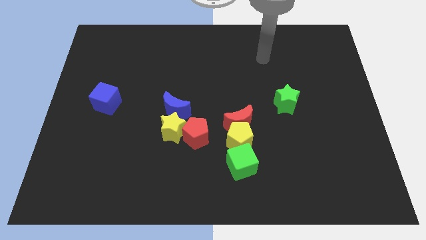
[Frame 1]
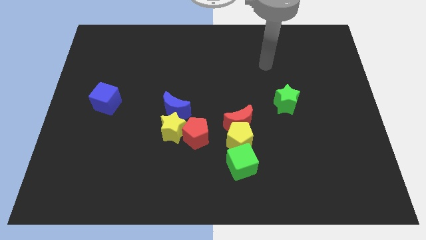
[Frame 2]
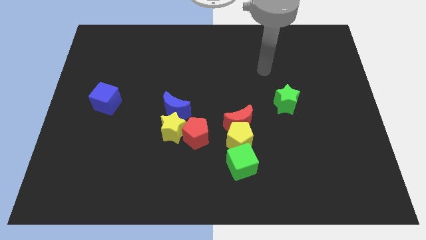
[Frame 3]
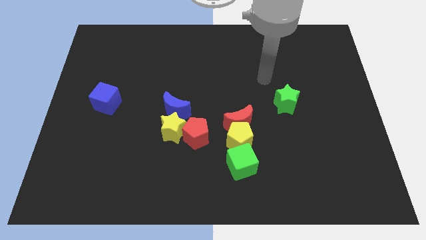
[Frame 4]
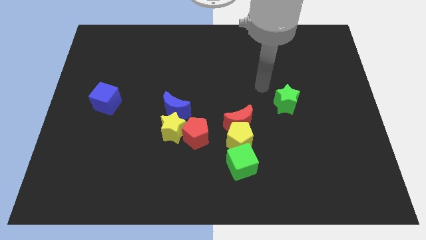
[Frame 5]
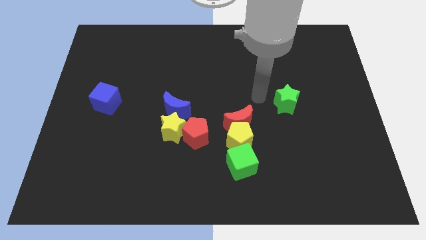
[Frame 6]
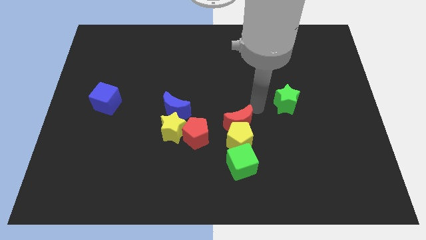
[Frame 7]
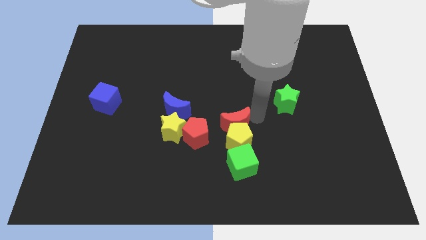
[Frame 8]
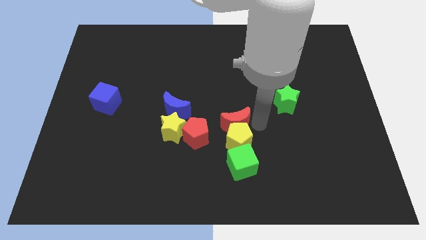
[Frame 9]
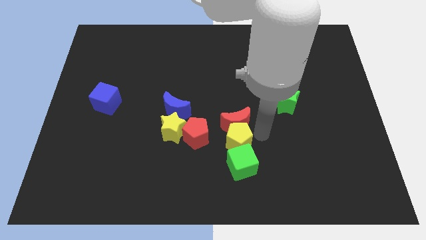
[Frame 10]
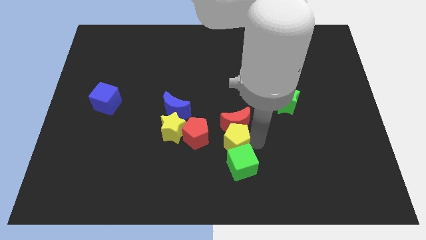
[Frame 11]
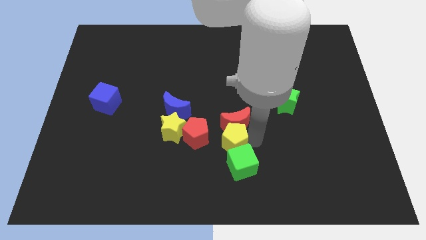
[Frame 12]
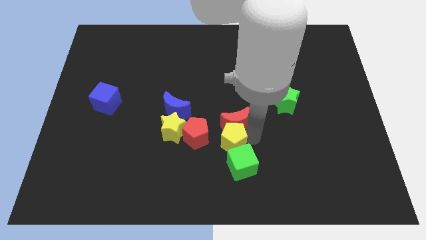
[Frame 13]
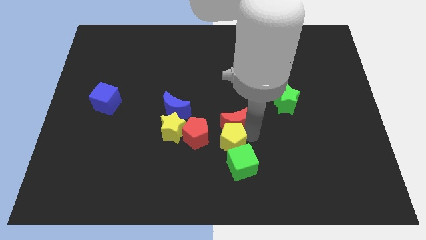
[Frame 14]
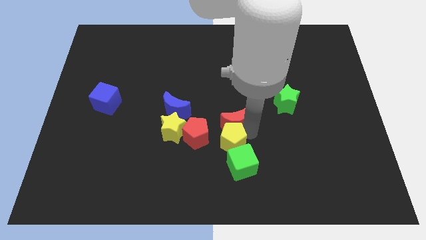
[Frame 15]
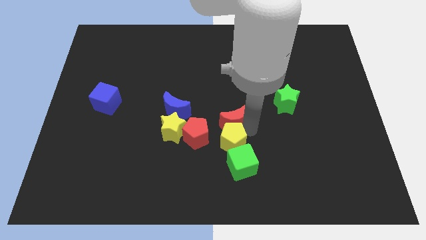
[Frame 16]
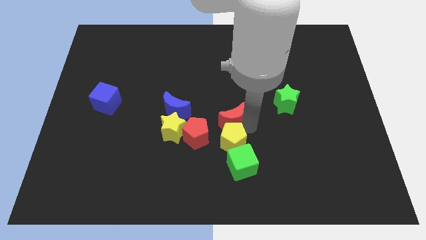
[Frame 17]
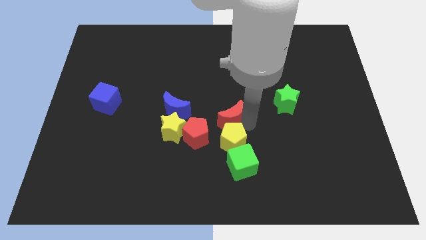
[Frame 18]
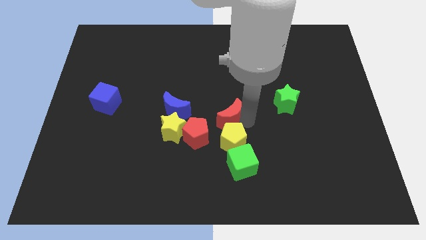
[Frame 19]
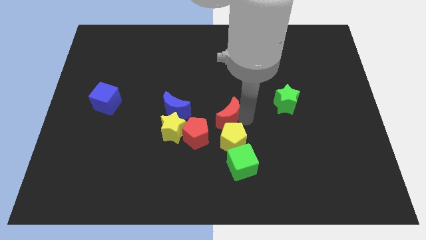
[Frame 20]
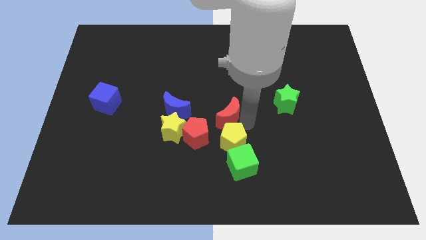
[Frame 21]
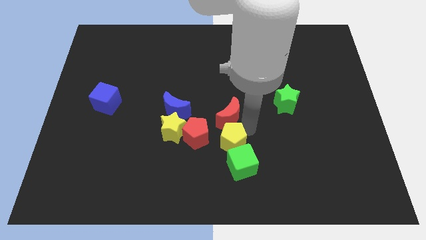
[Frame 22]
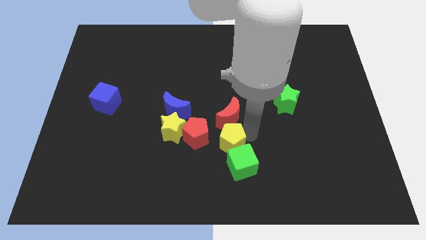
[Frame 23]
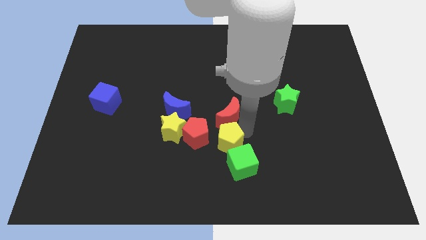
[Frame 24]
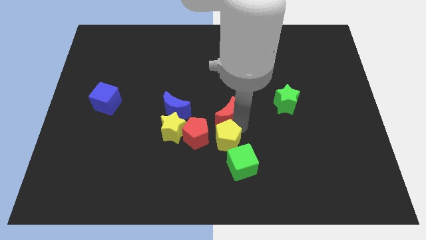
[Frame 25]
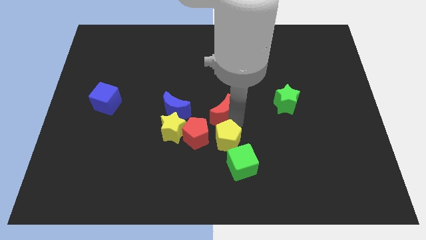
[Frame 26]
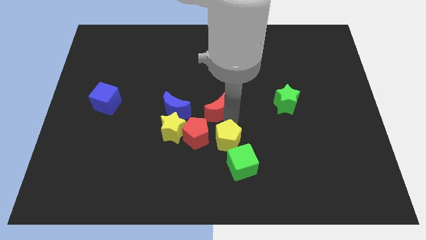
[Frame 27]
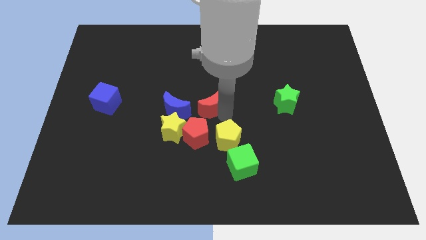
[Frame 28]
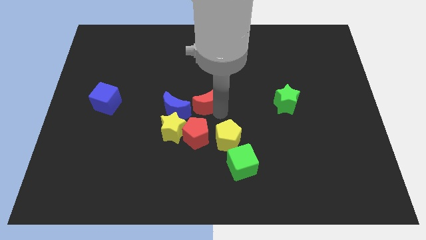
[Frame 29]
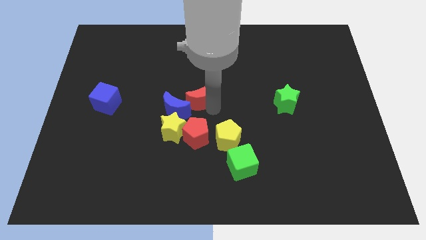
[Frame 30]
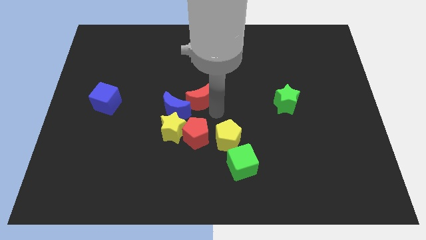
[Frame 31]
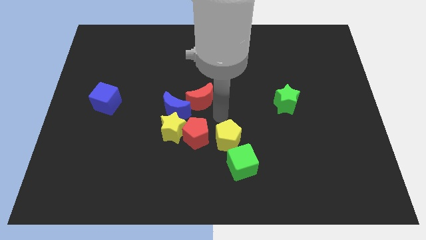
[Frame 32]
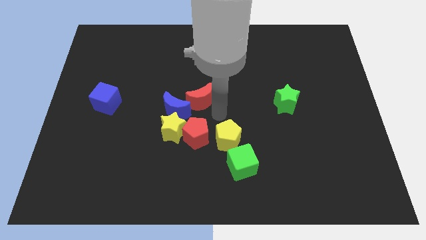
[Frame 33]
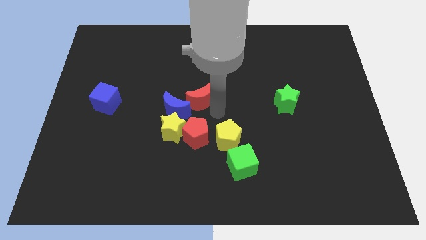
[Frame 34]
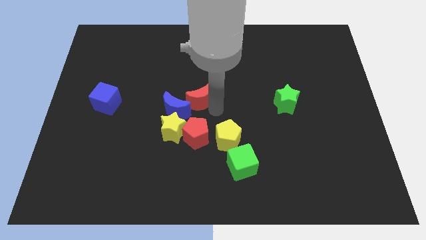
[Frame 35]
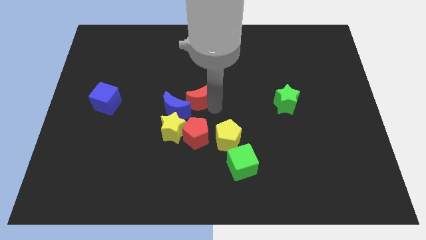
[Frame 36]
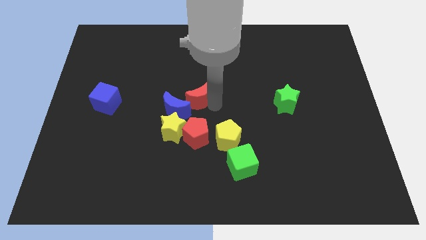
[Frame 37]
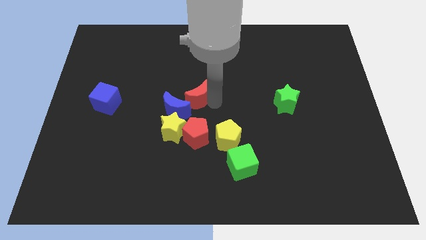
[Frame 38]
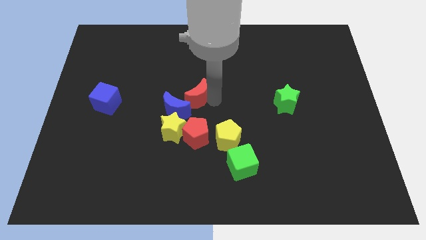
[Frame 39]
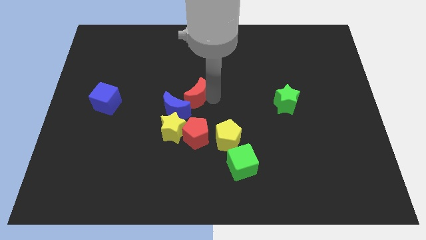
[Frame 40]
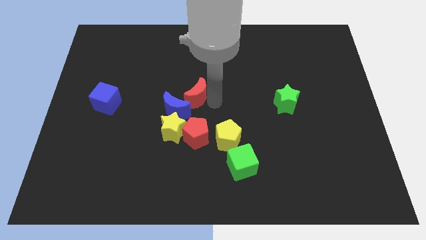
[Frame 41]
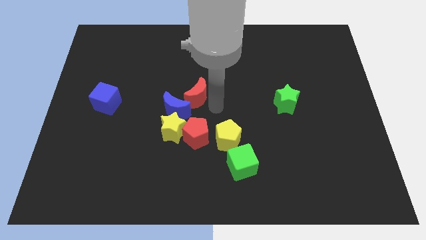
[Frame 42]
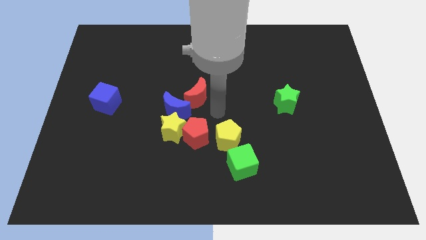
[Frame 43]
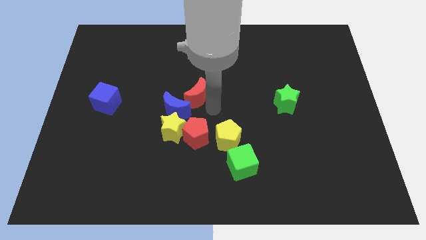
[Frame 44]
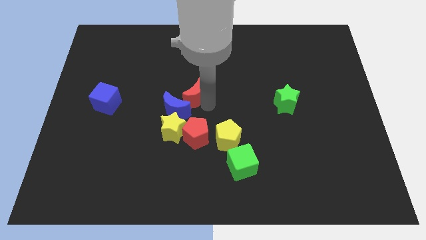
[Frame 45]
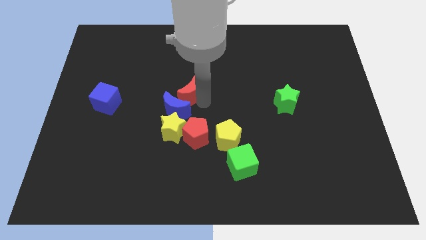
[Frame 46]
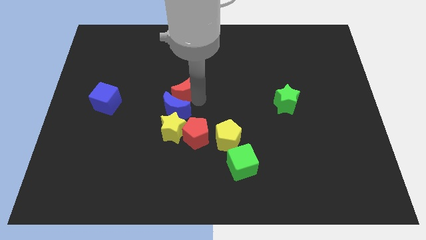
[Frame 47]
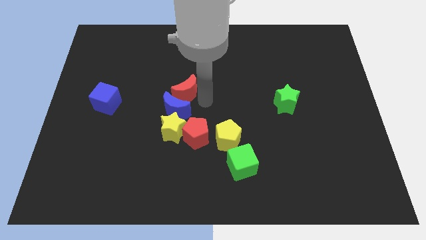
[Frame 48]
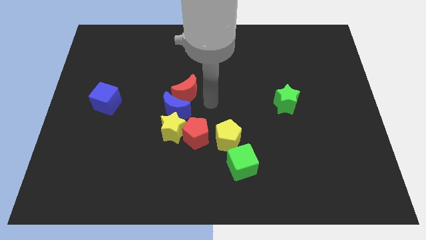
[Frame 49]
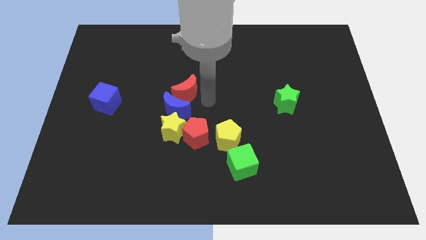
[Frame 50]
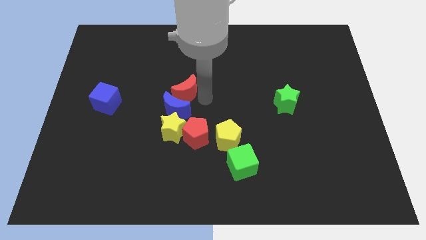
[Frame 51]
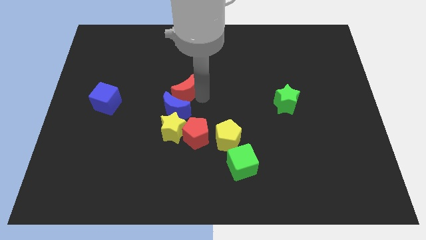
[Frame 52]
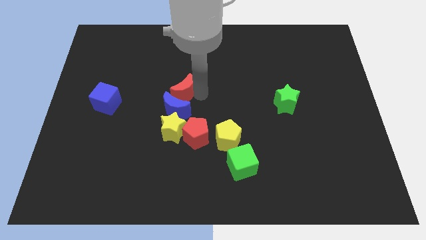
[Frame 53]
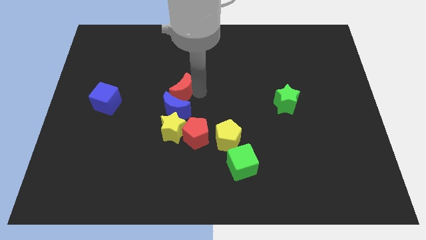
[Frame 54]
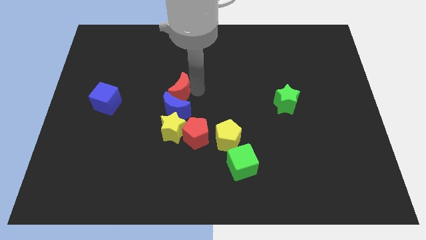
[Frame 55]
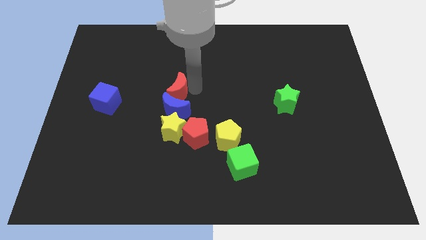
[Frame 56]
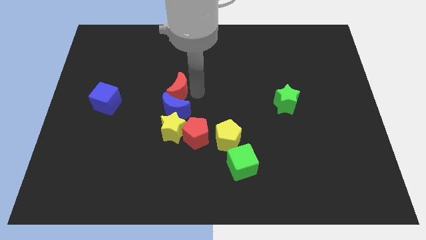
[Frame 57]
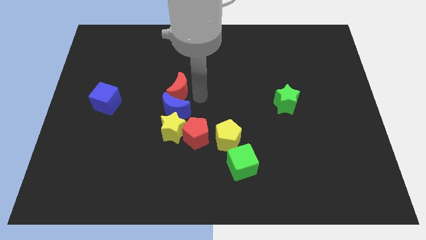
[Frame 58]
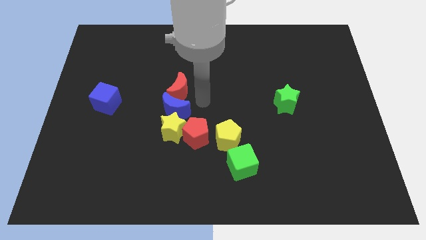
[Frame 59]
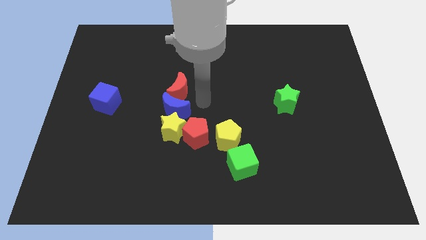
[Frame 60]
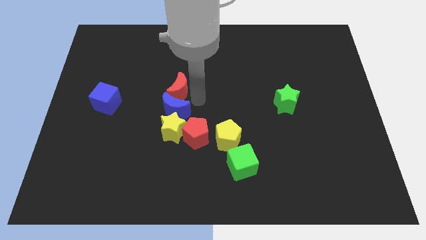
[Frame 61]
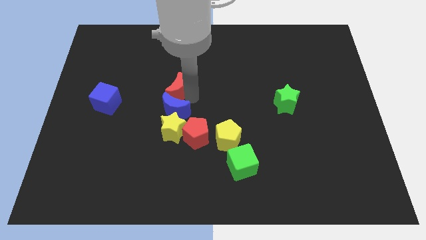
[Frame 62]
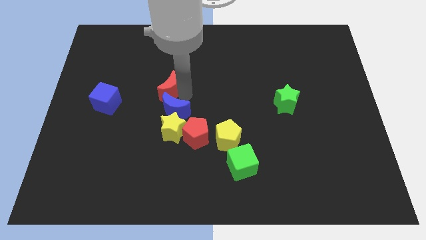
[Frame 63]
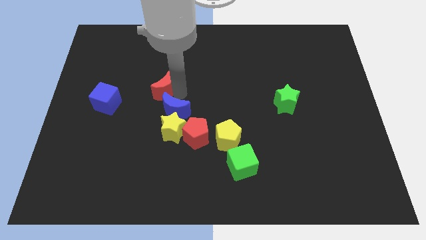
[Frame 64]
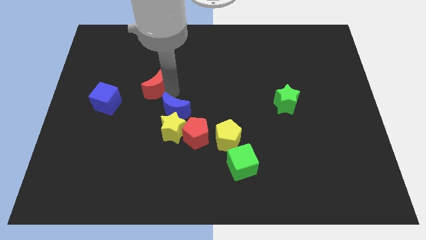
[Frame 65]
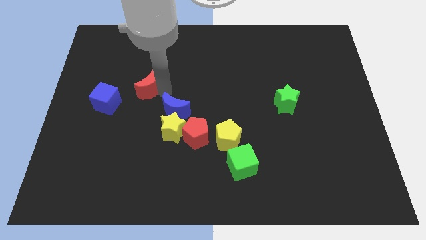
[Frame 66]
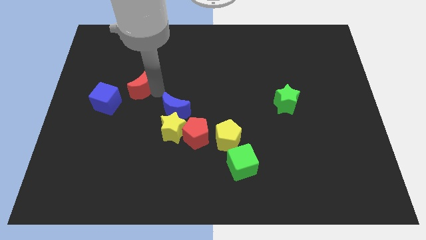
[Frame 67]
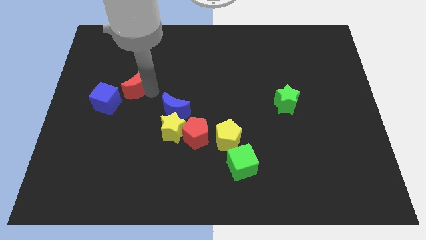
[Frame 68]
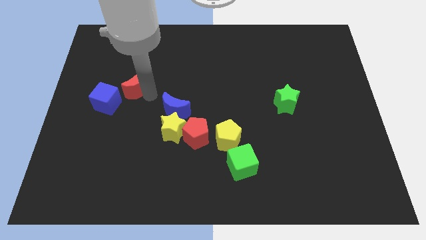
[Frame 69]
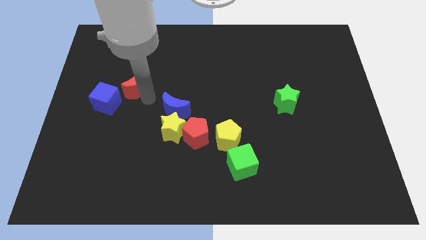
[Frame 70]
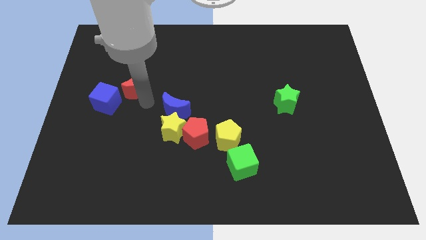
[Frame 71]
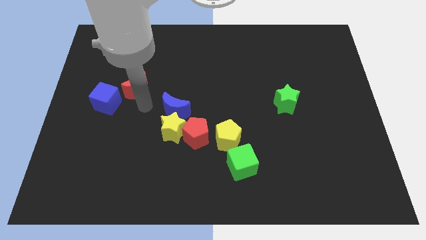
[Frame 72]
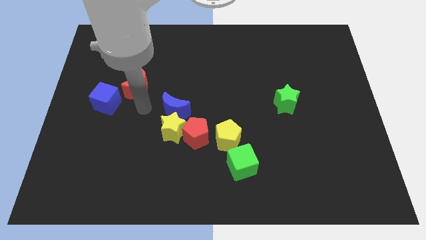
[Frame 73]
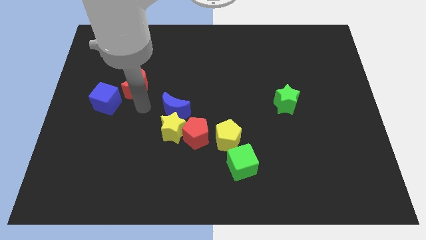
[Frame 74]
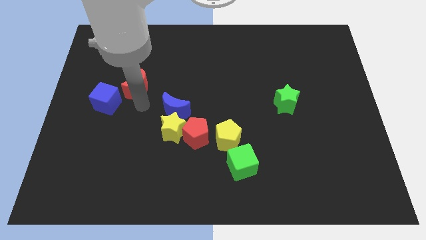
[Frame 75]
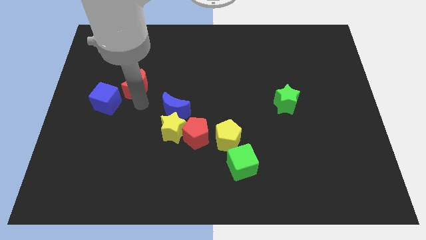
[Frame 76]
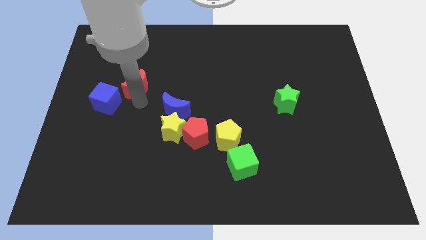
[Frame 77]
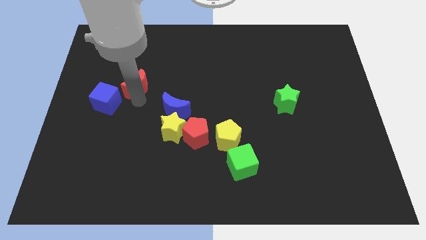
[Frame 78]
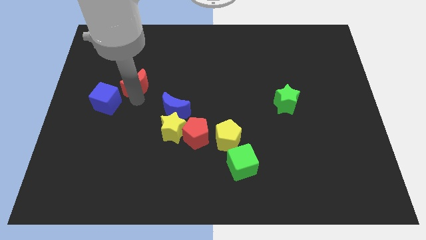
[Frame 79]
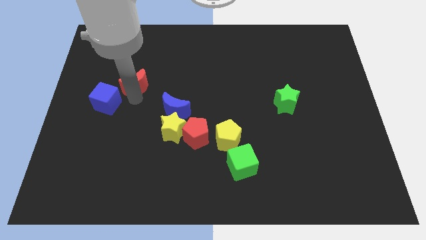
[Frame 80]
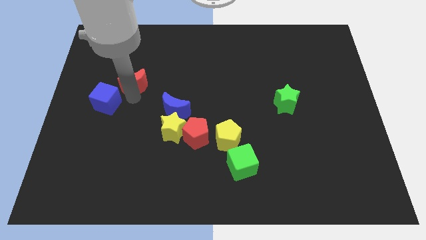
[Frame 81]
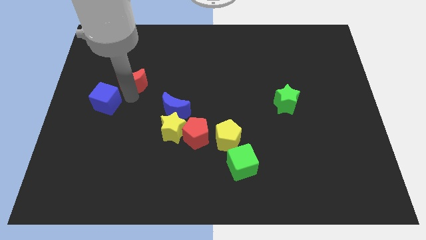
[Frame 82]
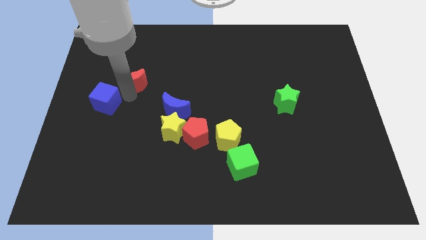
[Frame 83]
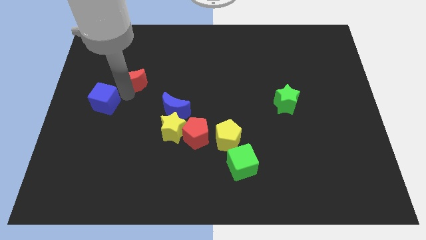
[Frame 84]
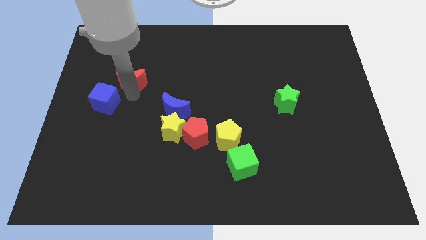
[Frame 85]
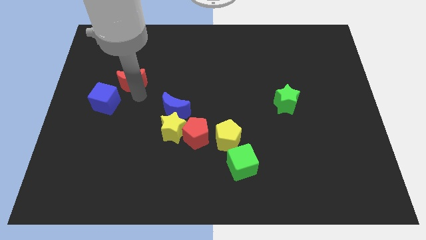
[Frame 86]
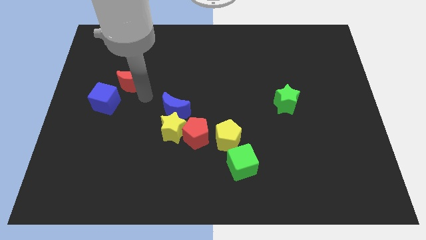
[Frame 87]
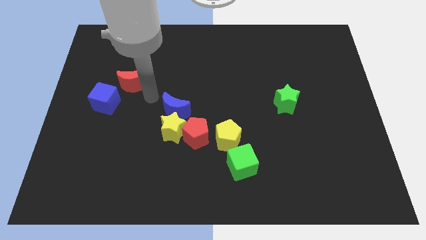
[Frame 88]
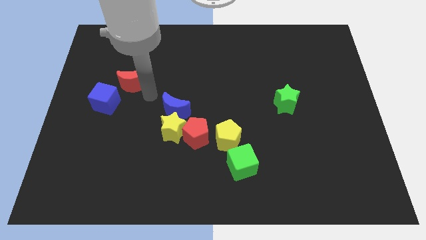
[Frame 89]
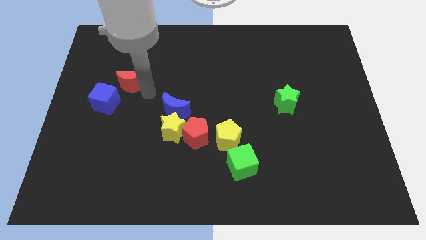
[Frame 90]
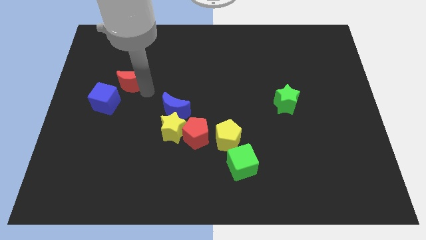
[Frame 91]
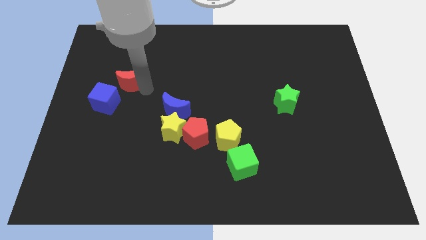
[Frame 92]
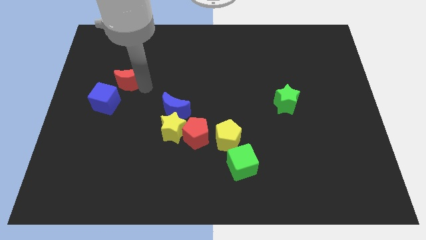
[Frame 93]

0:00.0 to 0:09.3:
put the red moon above the blue cube
